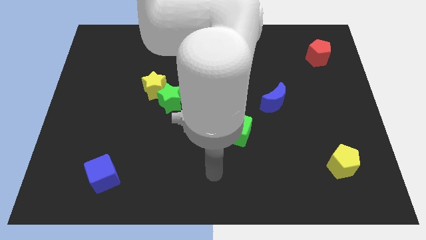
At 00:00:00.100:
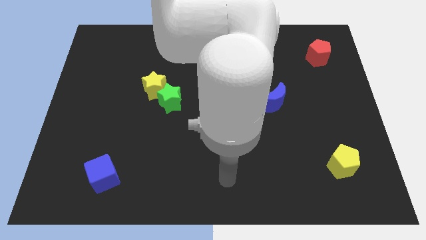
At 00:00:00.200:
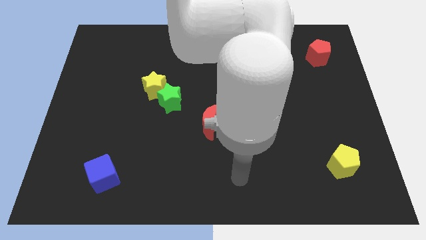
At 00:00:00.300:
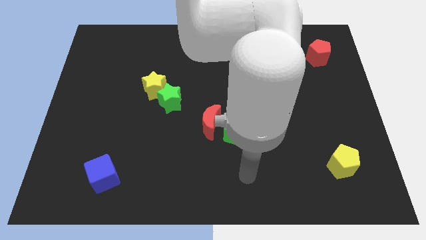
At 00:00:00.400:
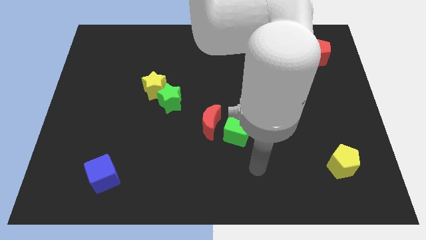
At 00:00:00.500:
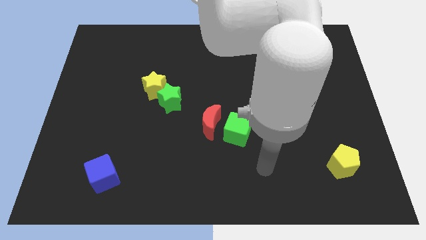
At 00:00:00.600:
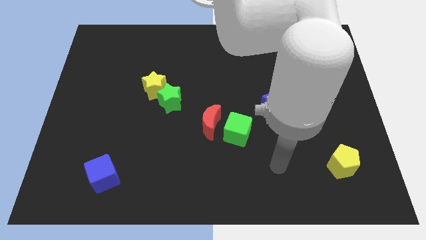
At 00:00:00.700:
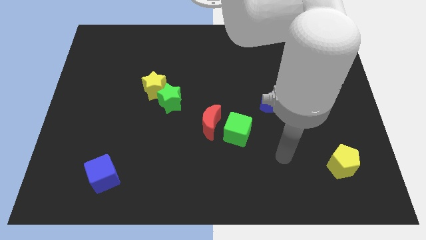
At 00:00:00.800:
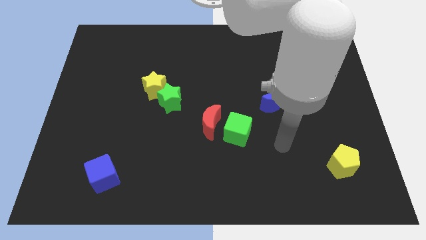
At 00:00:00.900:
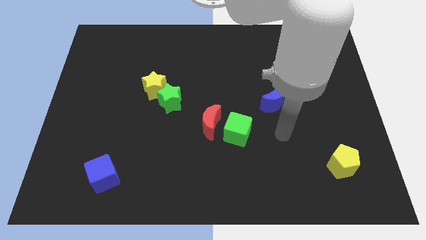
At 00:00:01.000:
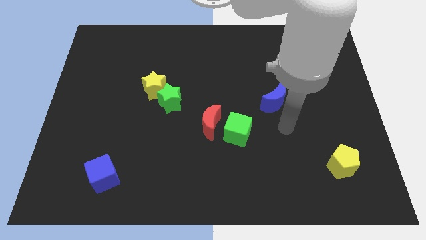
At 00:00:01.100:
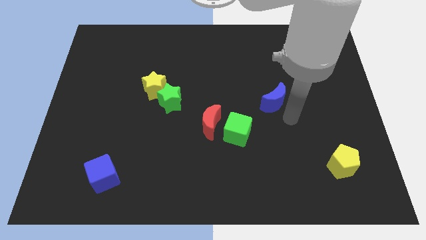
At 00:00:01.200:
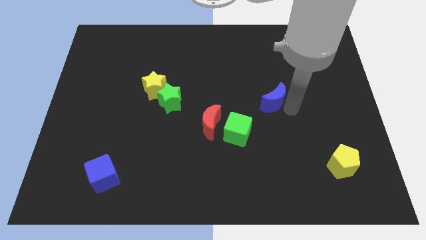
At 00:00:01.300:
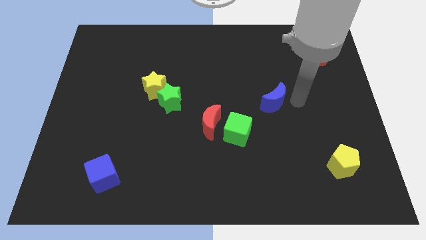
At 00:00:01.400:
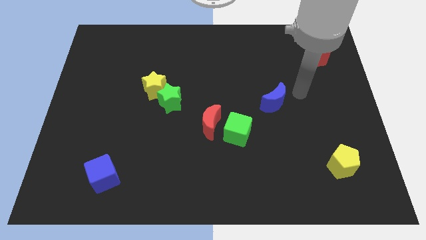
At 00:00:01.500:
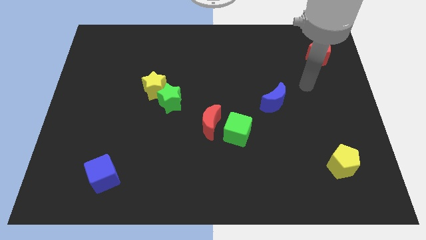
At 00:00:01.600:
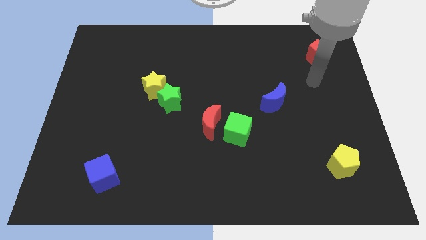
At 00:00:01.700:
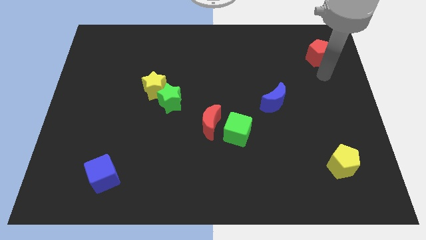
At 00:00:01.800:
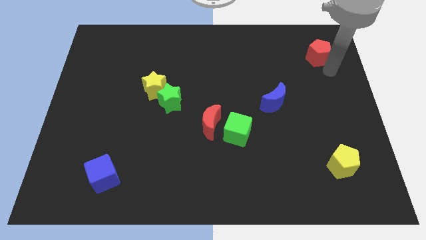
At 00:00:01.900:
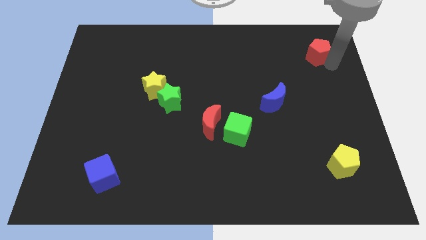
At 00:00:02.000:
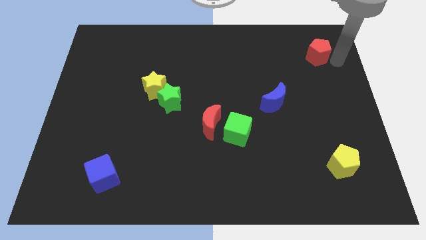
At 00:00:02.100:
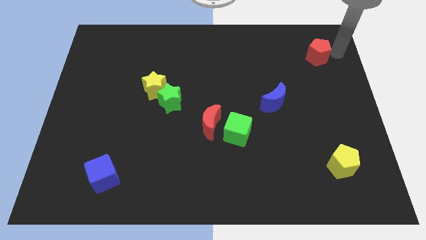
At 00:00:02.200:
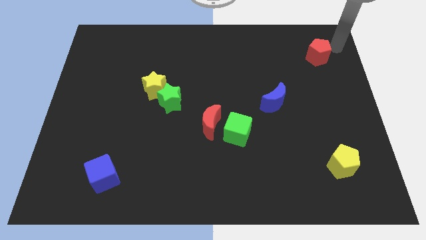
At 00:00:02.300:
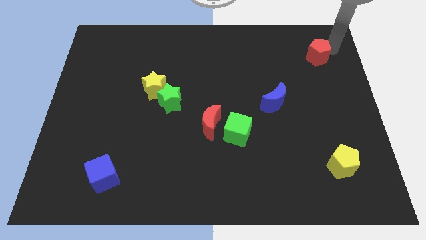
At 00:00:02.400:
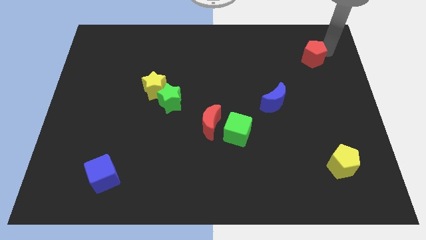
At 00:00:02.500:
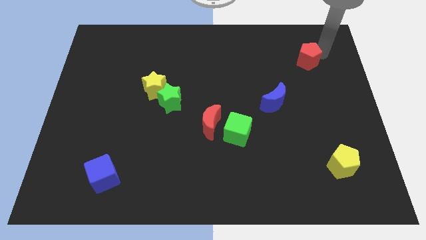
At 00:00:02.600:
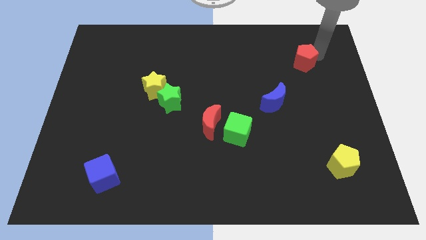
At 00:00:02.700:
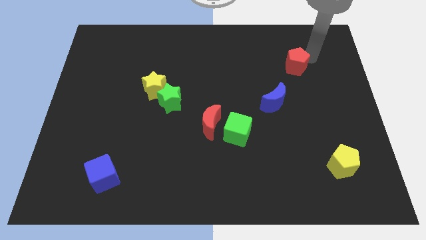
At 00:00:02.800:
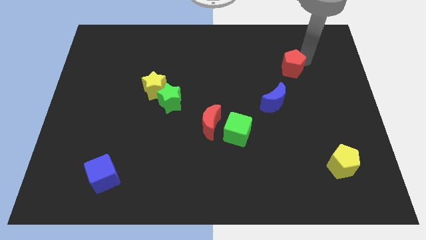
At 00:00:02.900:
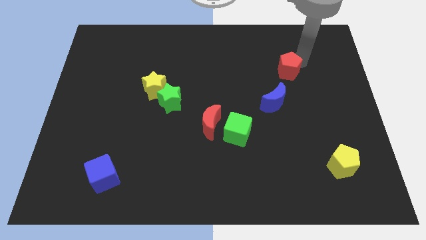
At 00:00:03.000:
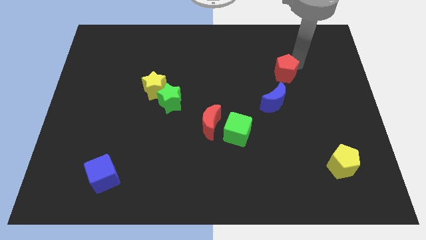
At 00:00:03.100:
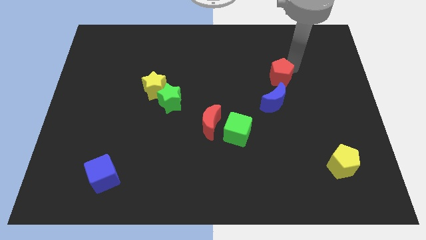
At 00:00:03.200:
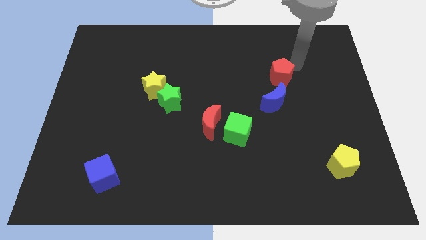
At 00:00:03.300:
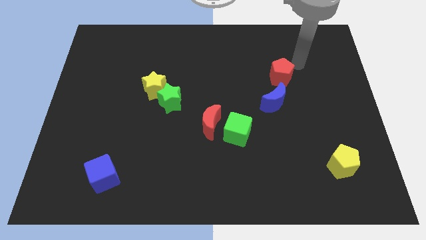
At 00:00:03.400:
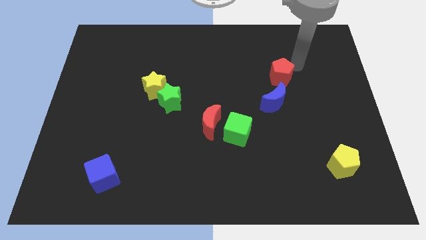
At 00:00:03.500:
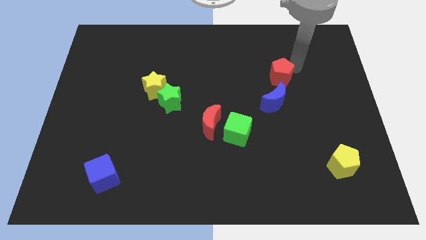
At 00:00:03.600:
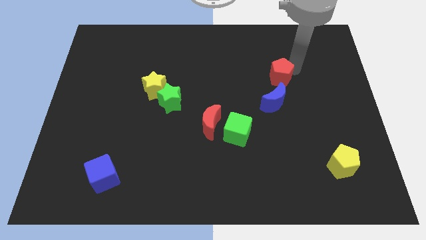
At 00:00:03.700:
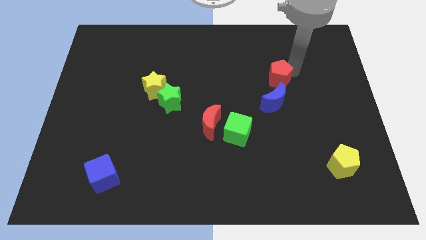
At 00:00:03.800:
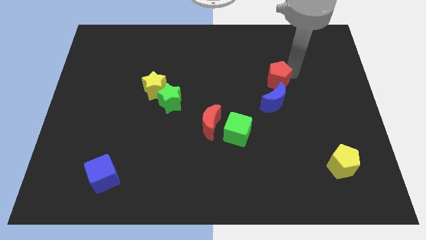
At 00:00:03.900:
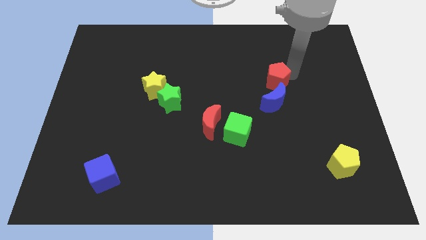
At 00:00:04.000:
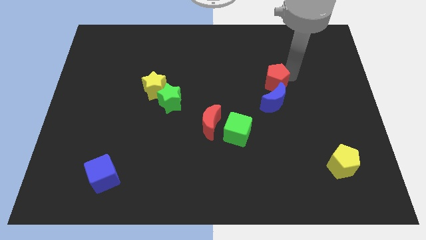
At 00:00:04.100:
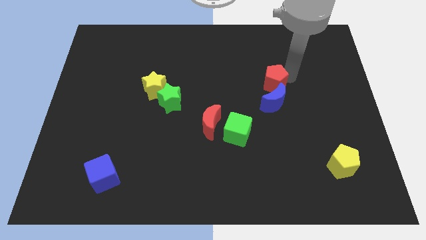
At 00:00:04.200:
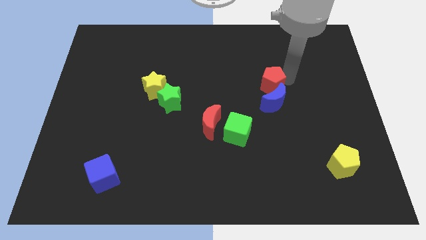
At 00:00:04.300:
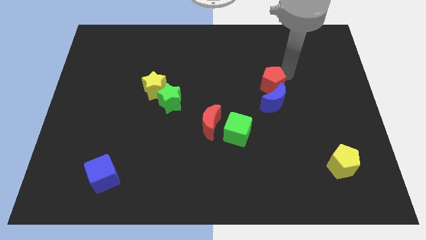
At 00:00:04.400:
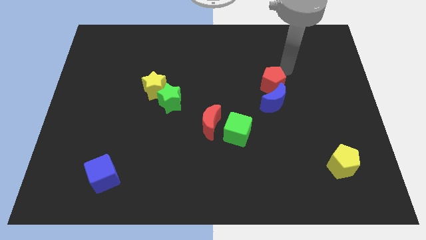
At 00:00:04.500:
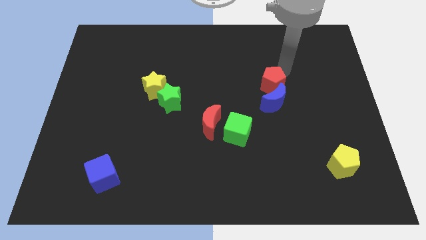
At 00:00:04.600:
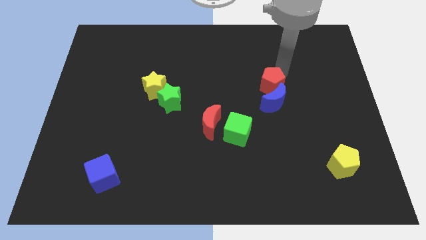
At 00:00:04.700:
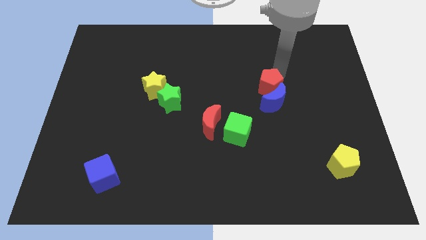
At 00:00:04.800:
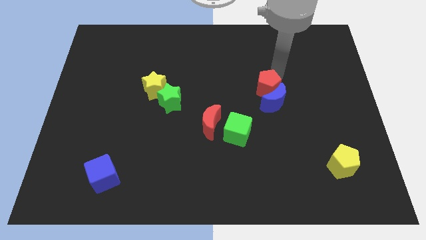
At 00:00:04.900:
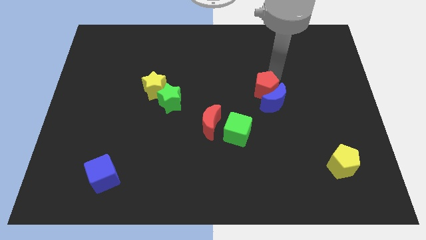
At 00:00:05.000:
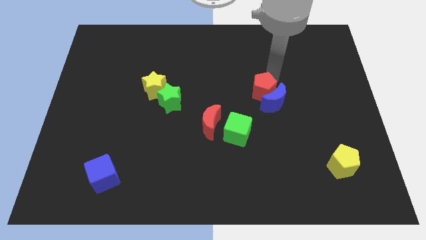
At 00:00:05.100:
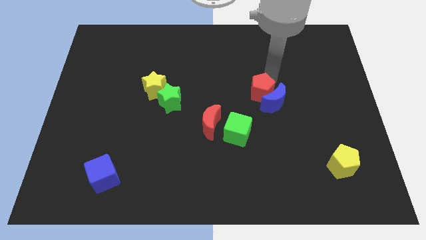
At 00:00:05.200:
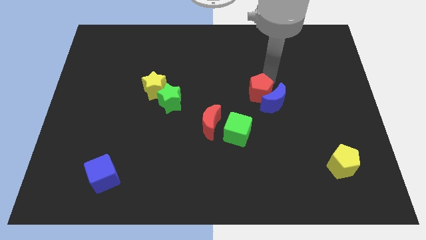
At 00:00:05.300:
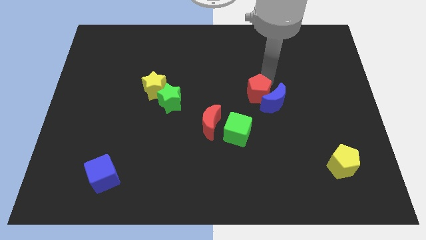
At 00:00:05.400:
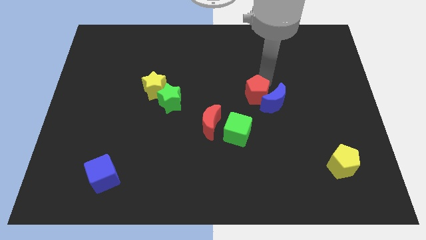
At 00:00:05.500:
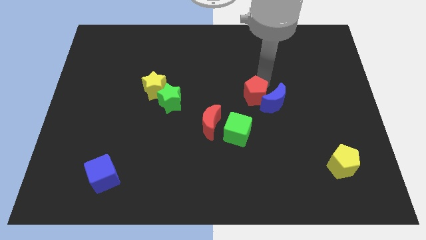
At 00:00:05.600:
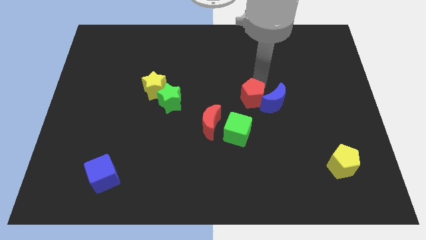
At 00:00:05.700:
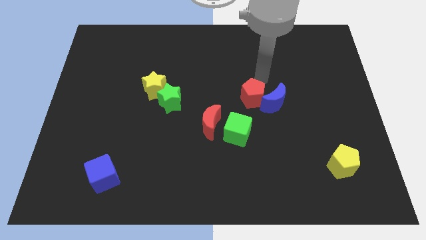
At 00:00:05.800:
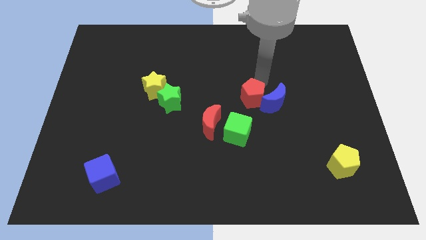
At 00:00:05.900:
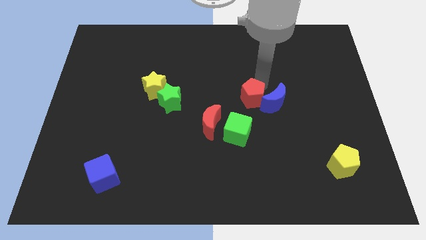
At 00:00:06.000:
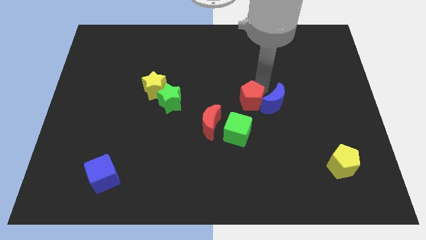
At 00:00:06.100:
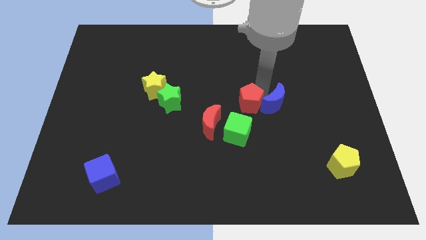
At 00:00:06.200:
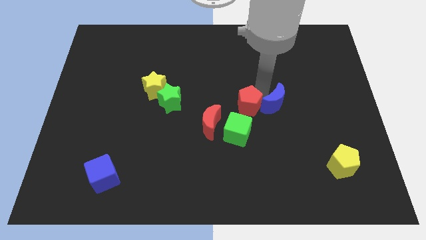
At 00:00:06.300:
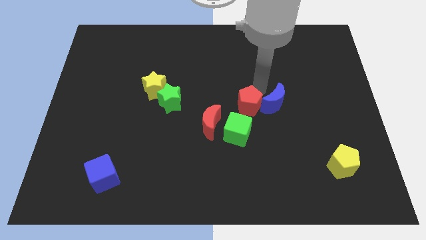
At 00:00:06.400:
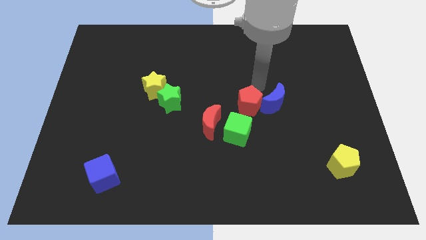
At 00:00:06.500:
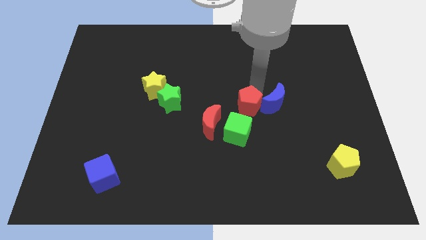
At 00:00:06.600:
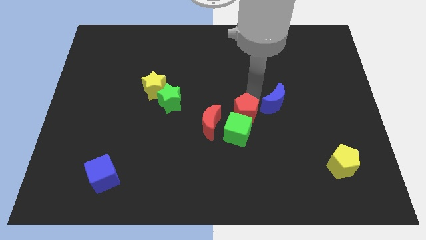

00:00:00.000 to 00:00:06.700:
slide the red pentagon towards the green cube

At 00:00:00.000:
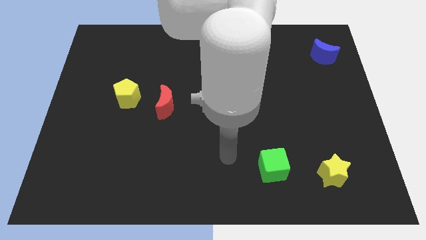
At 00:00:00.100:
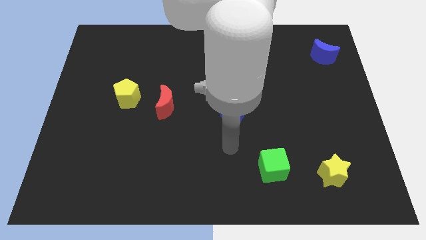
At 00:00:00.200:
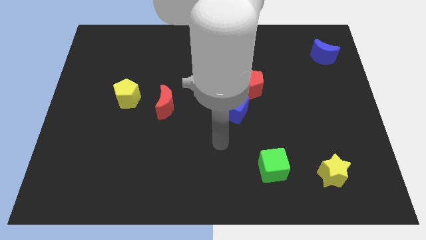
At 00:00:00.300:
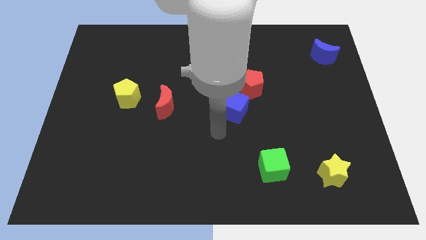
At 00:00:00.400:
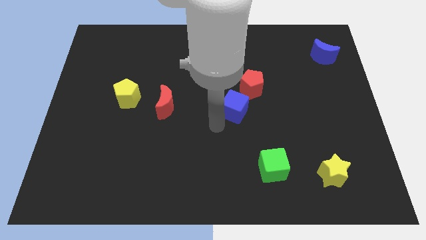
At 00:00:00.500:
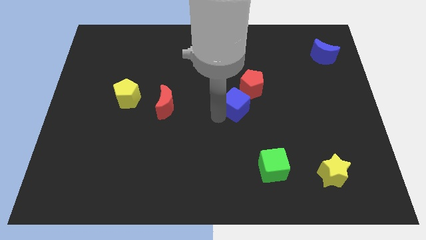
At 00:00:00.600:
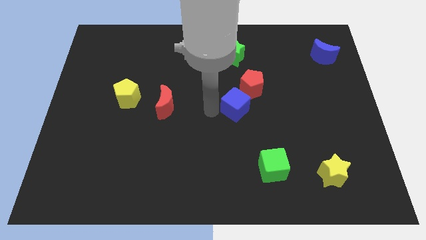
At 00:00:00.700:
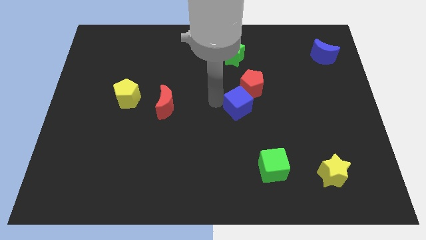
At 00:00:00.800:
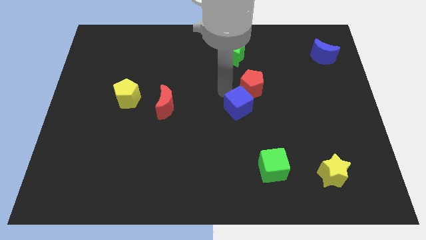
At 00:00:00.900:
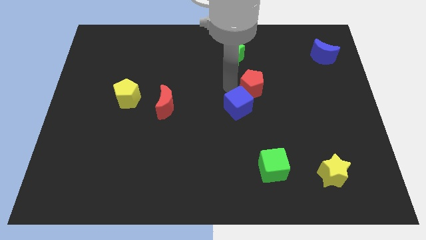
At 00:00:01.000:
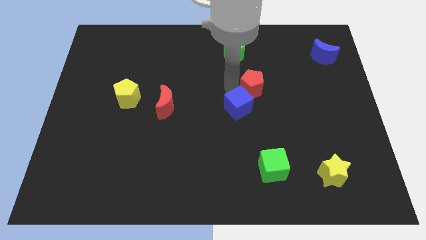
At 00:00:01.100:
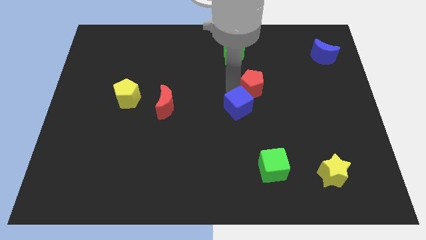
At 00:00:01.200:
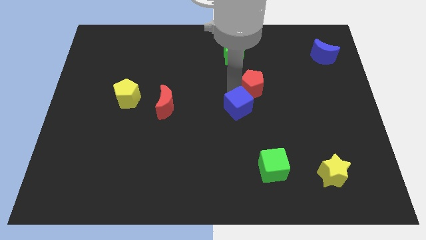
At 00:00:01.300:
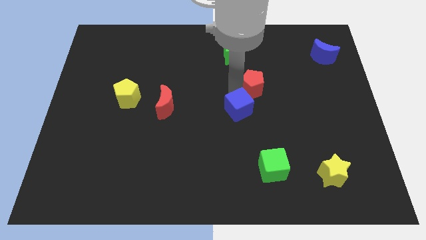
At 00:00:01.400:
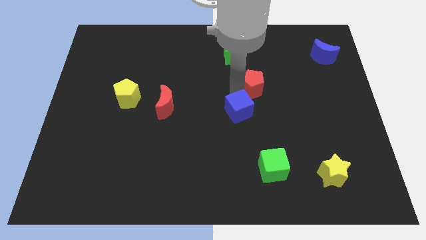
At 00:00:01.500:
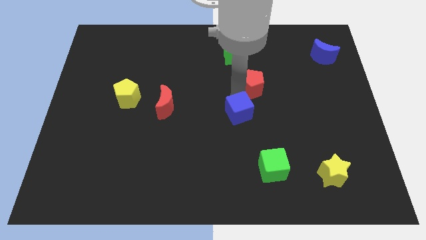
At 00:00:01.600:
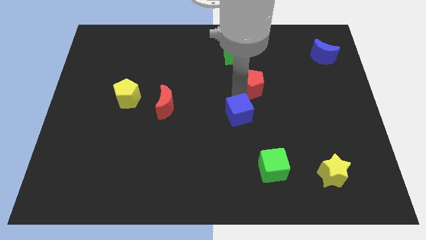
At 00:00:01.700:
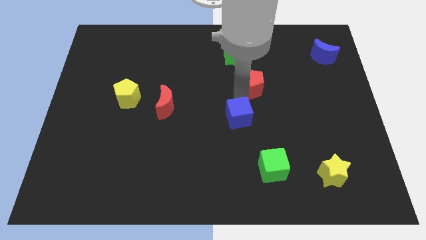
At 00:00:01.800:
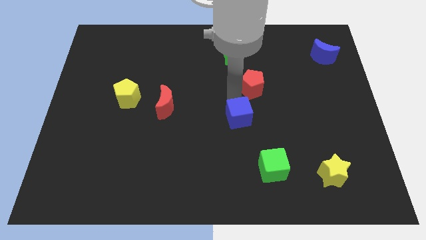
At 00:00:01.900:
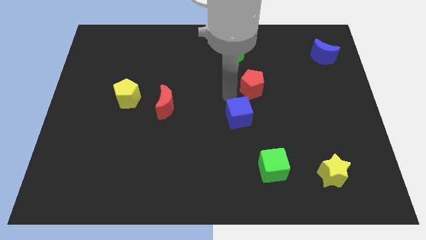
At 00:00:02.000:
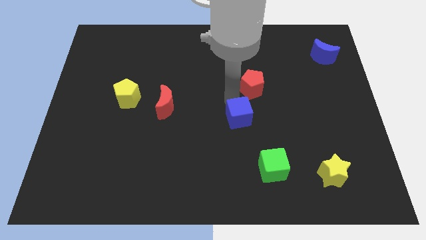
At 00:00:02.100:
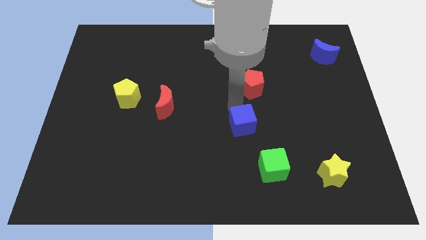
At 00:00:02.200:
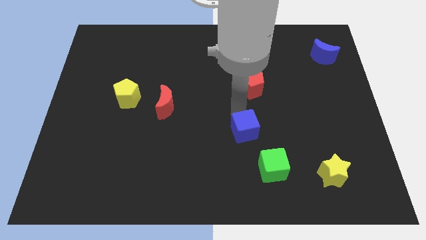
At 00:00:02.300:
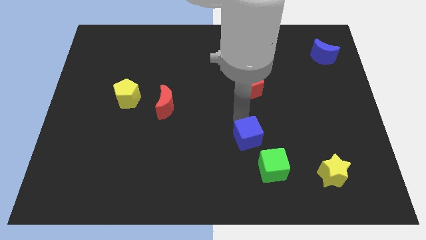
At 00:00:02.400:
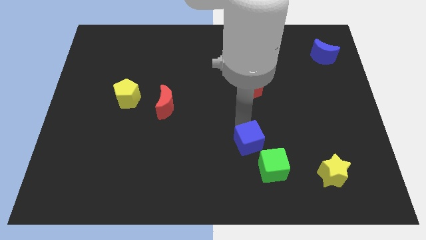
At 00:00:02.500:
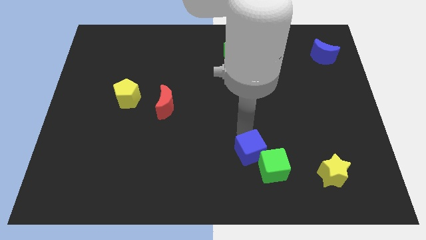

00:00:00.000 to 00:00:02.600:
slide the blue cube close to the green cube
